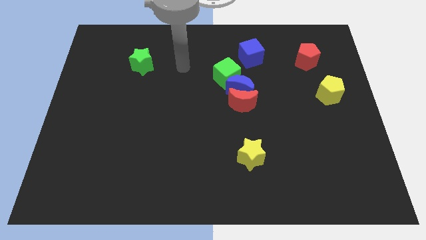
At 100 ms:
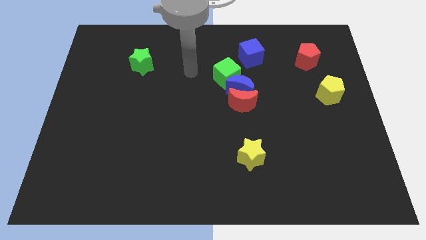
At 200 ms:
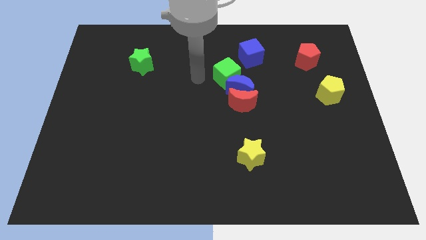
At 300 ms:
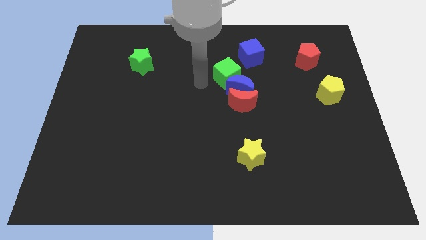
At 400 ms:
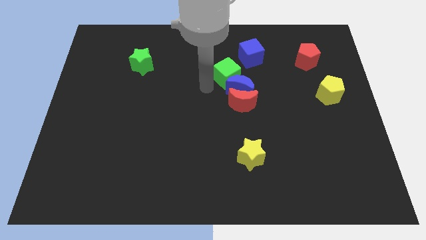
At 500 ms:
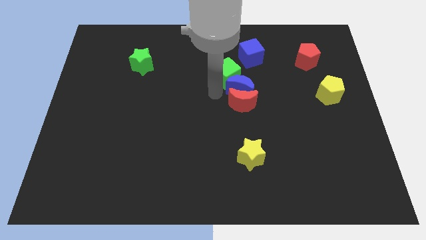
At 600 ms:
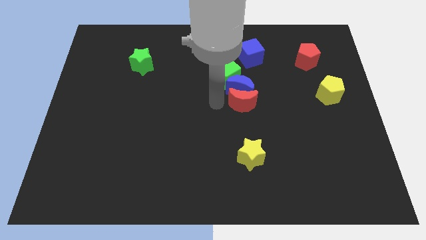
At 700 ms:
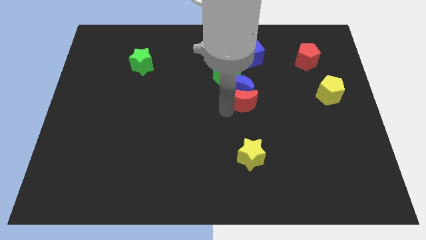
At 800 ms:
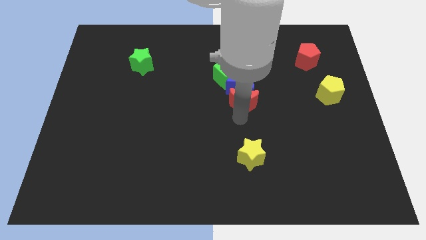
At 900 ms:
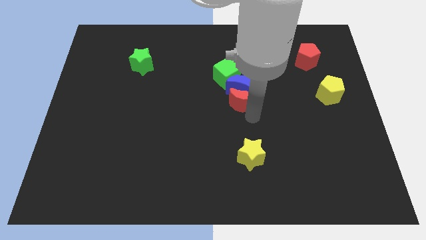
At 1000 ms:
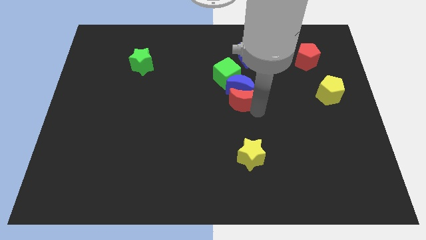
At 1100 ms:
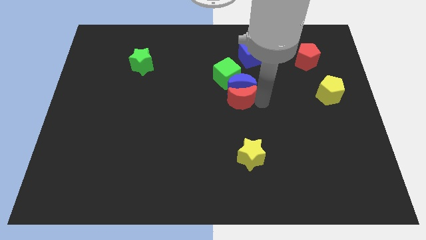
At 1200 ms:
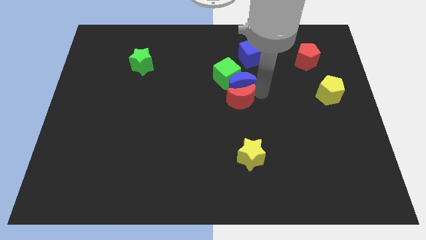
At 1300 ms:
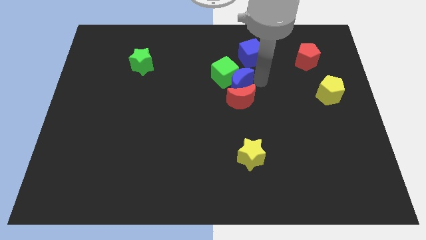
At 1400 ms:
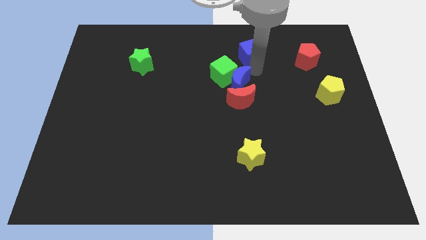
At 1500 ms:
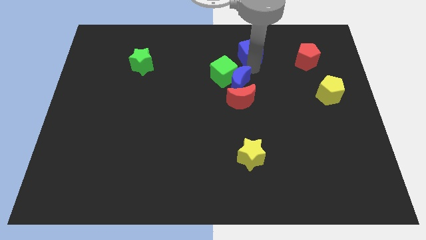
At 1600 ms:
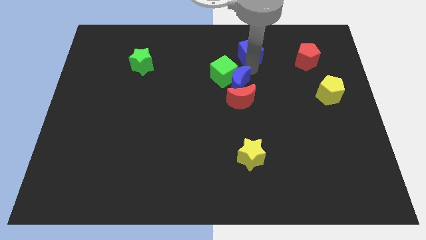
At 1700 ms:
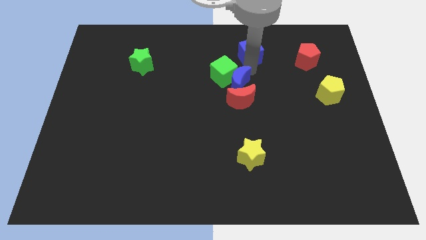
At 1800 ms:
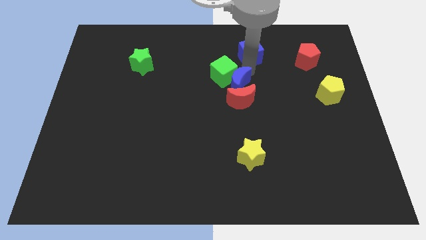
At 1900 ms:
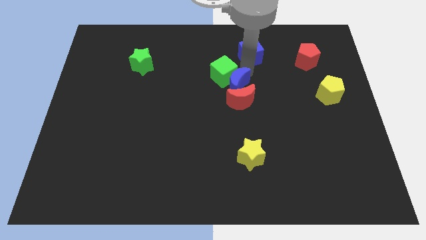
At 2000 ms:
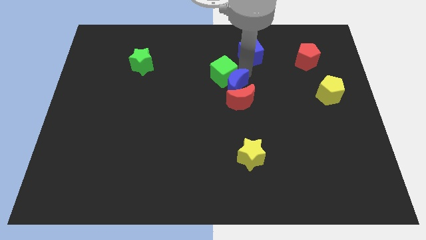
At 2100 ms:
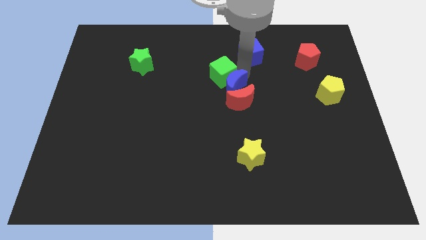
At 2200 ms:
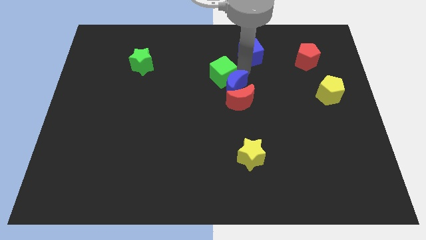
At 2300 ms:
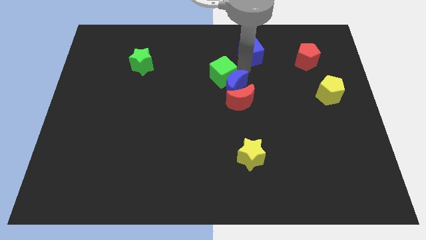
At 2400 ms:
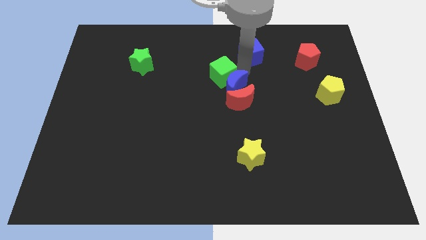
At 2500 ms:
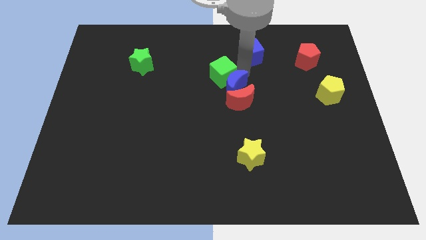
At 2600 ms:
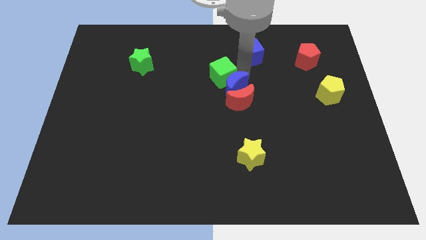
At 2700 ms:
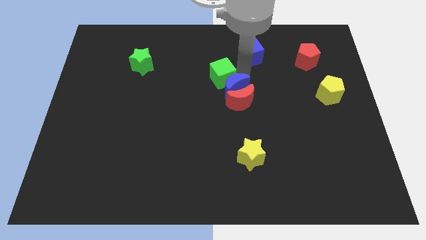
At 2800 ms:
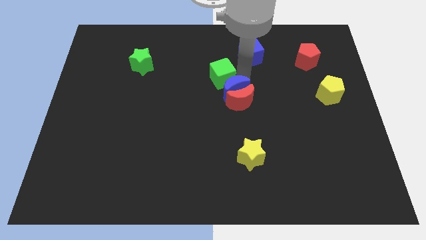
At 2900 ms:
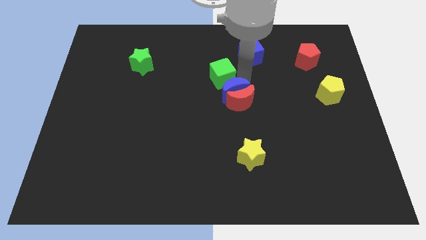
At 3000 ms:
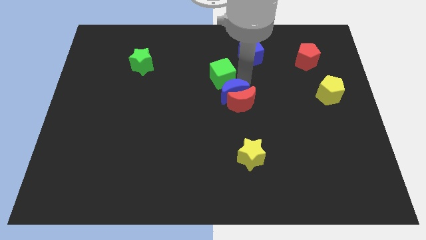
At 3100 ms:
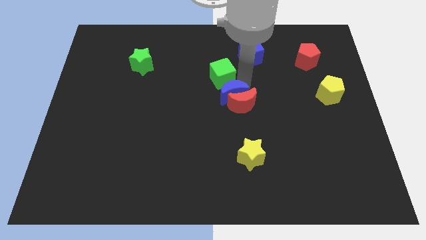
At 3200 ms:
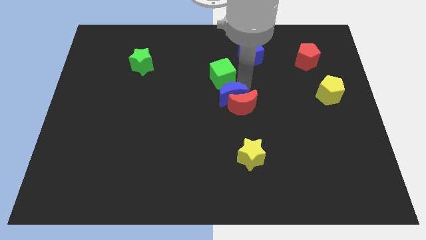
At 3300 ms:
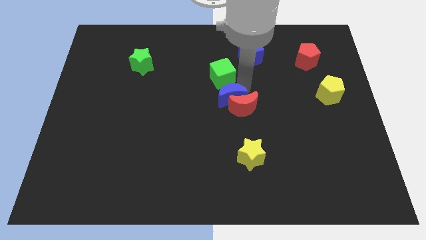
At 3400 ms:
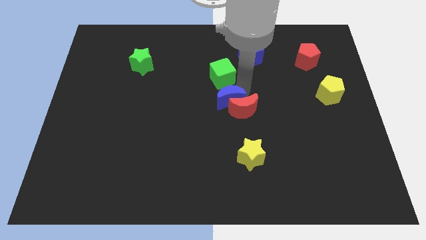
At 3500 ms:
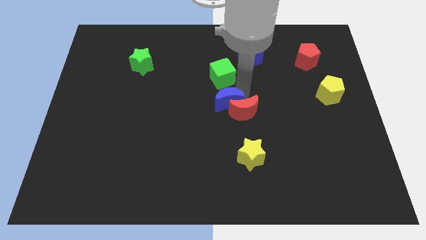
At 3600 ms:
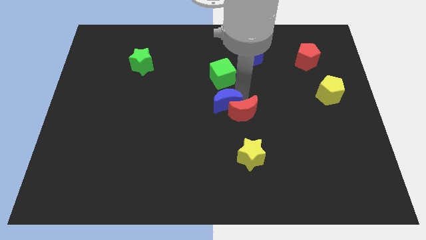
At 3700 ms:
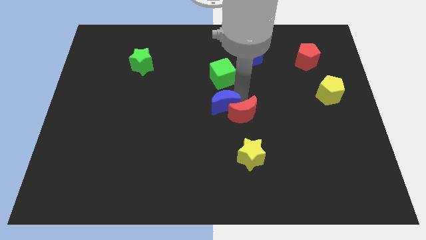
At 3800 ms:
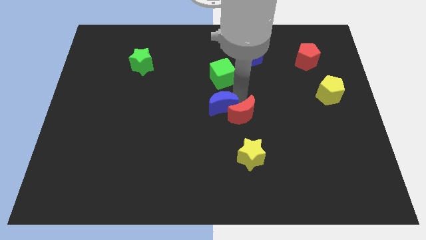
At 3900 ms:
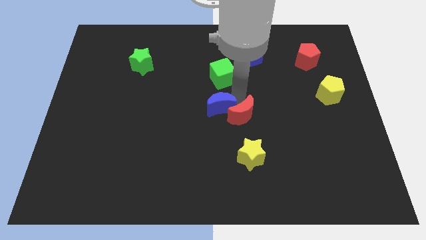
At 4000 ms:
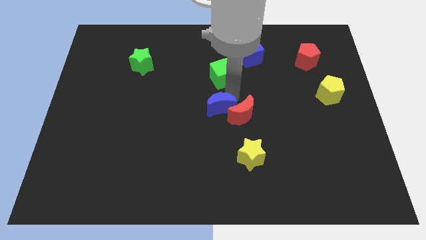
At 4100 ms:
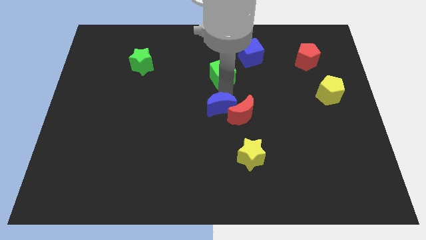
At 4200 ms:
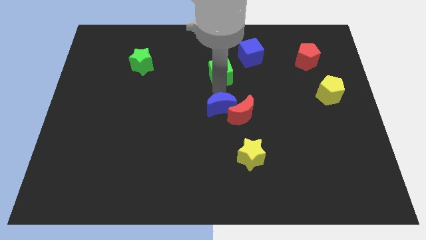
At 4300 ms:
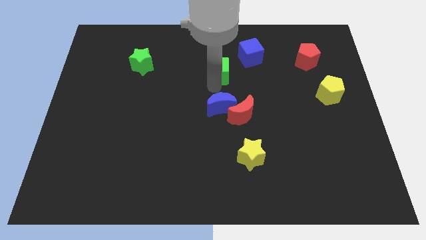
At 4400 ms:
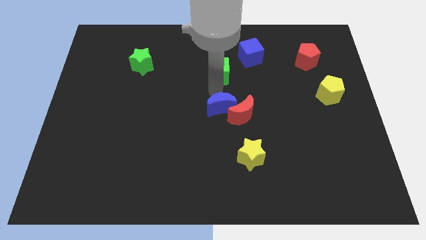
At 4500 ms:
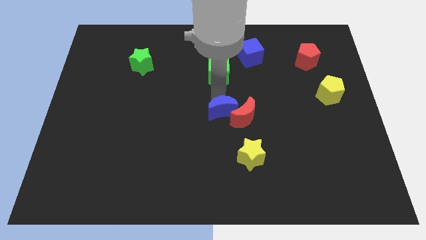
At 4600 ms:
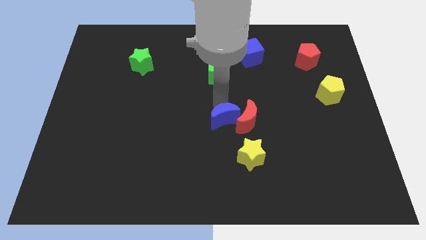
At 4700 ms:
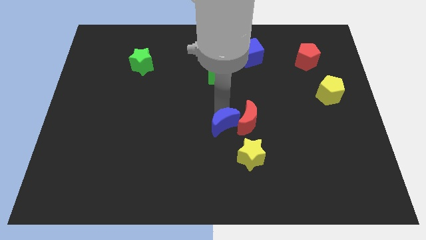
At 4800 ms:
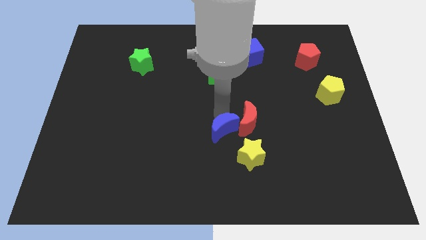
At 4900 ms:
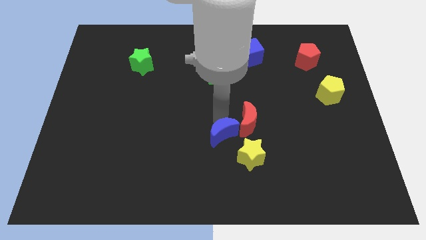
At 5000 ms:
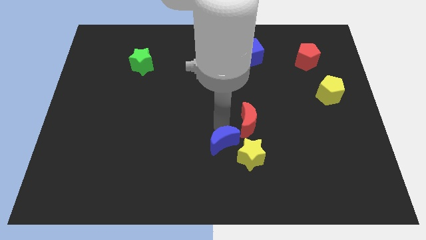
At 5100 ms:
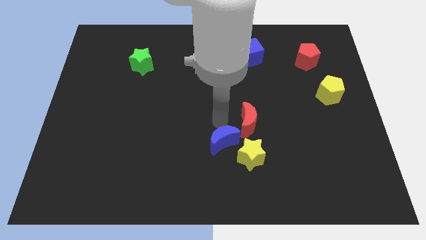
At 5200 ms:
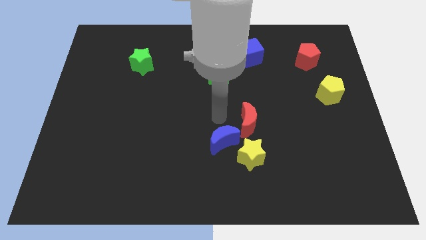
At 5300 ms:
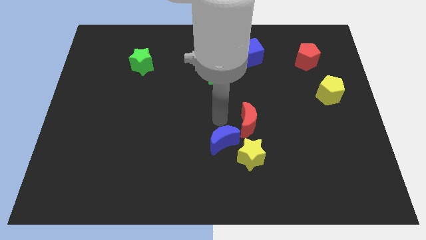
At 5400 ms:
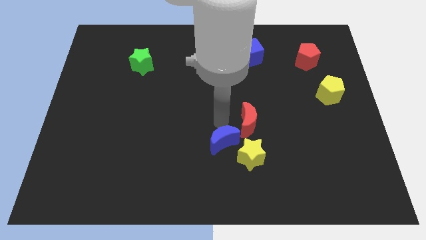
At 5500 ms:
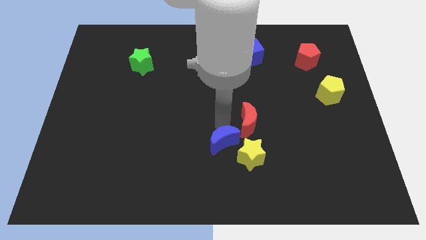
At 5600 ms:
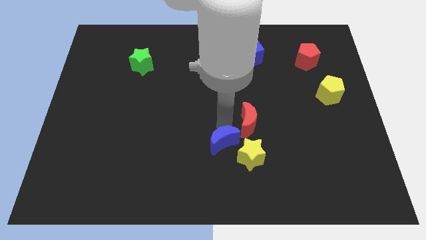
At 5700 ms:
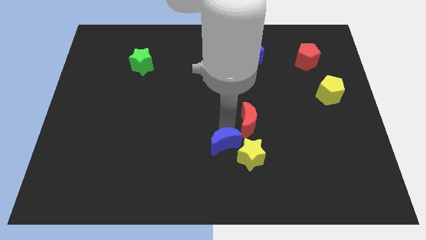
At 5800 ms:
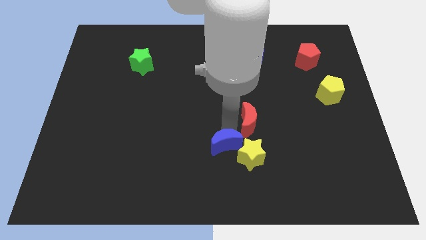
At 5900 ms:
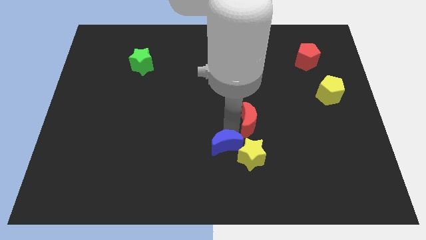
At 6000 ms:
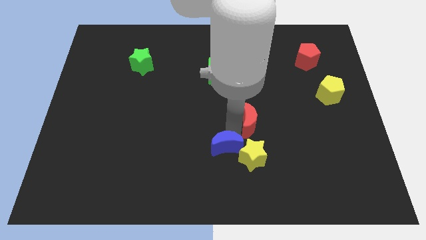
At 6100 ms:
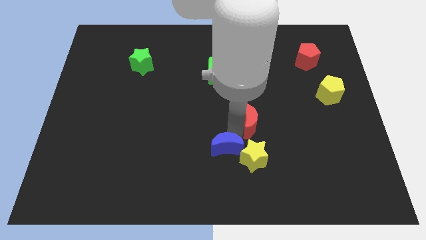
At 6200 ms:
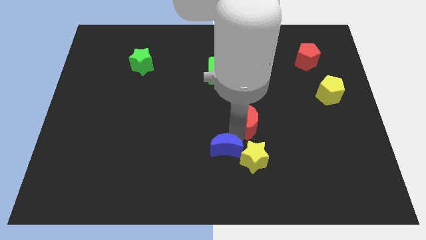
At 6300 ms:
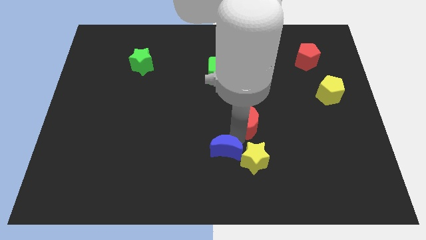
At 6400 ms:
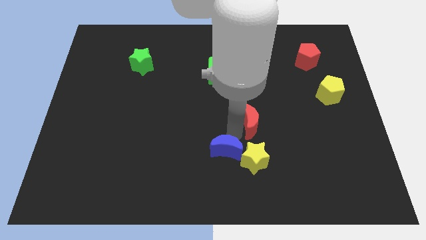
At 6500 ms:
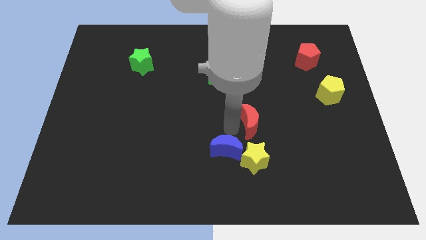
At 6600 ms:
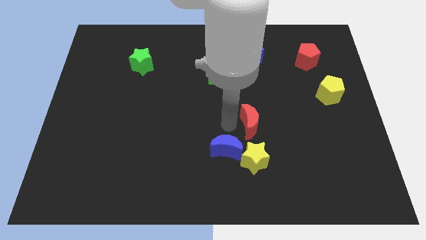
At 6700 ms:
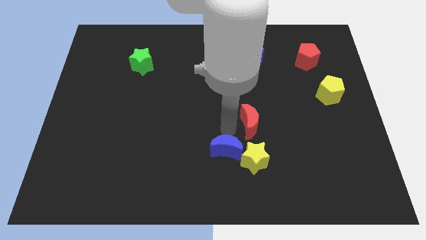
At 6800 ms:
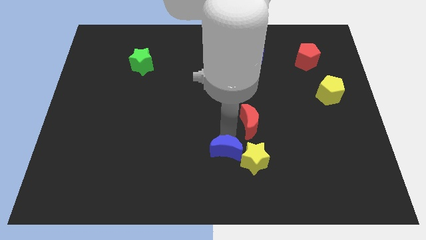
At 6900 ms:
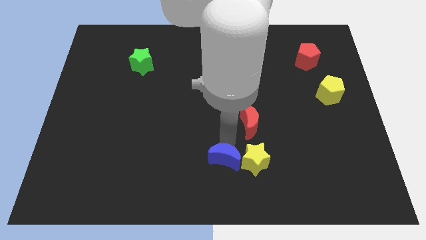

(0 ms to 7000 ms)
push the blue moon to the bottom

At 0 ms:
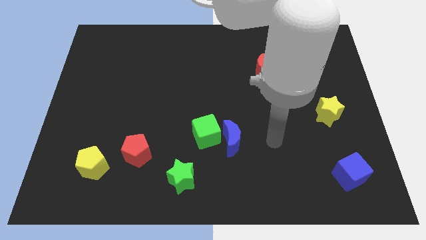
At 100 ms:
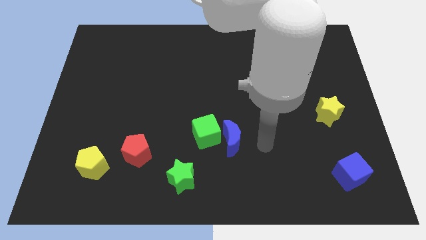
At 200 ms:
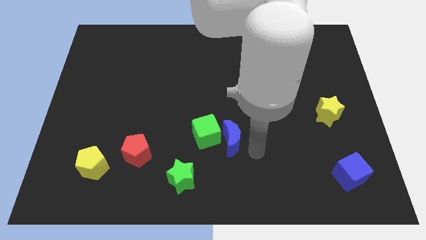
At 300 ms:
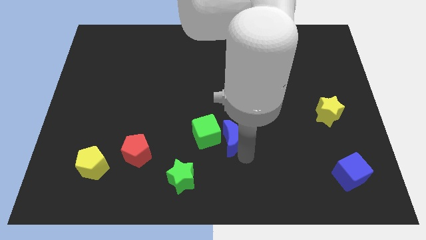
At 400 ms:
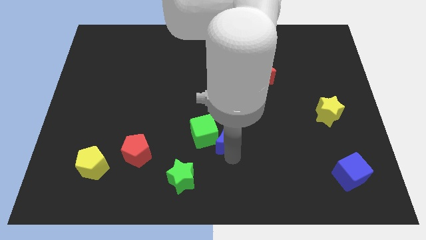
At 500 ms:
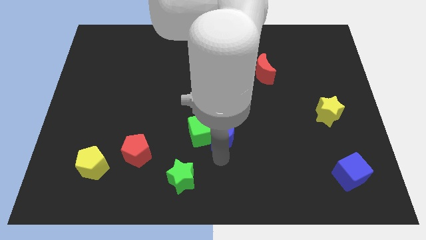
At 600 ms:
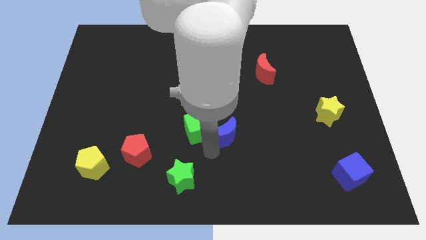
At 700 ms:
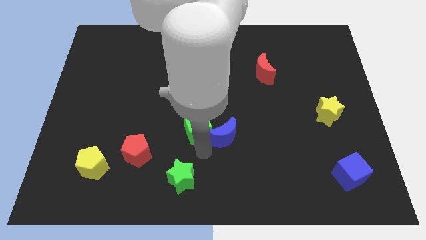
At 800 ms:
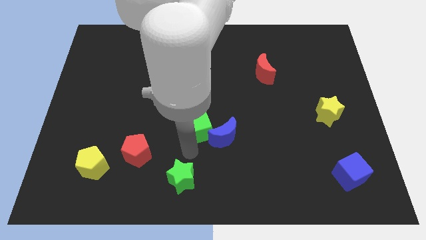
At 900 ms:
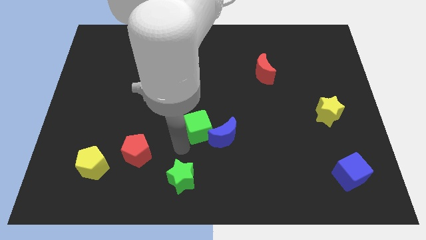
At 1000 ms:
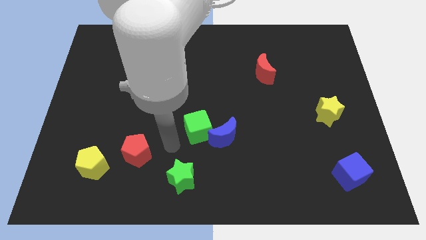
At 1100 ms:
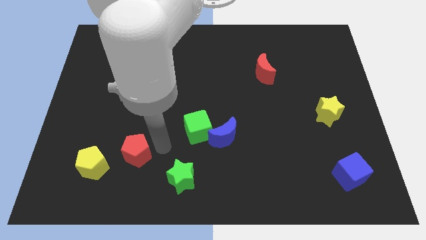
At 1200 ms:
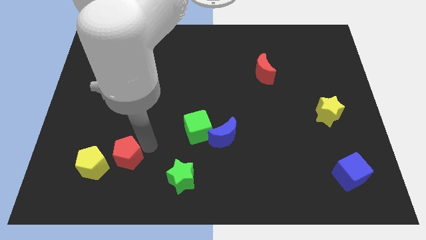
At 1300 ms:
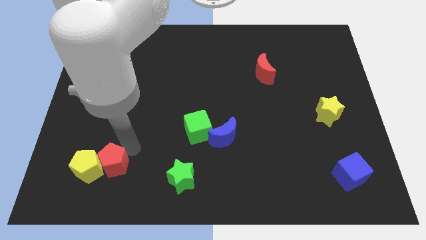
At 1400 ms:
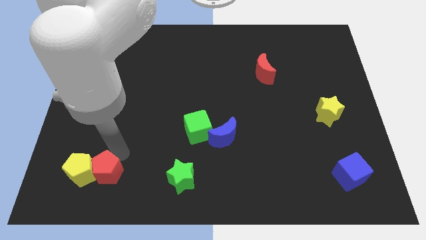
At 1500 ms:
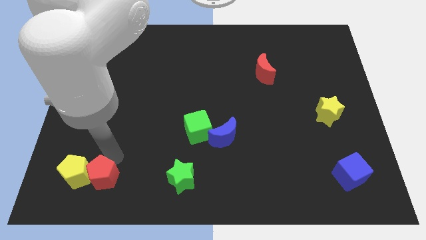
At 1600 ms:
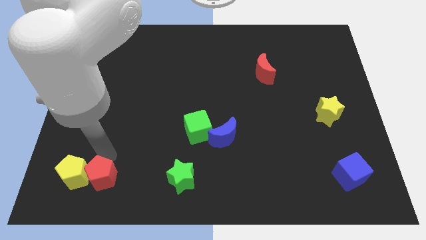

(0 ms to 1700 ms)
slide the yellow pentagon to the bottom left
